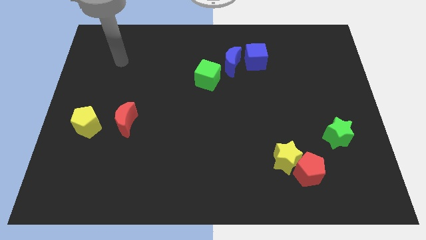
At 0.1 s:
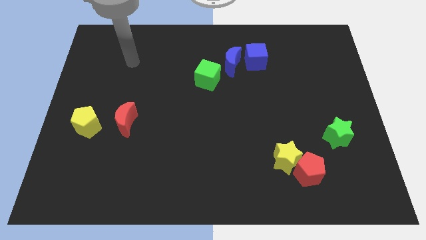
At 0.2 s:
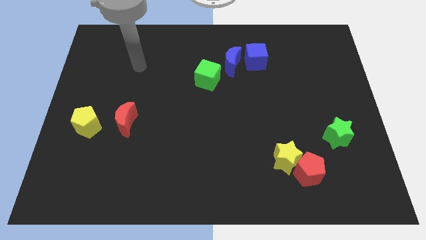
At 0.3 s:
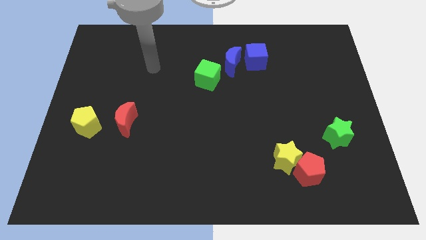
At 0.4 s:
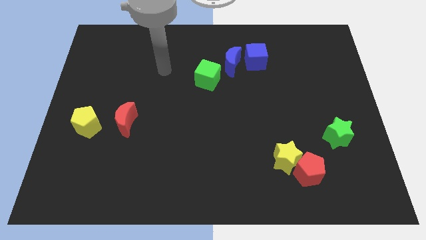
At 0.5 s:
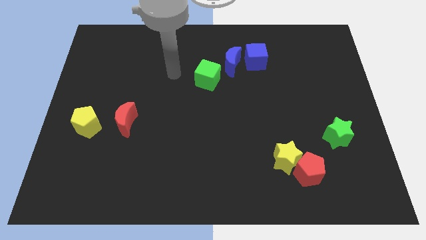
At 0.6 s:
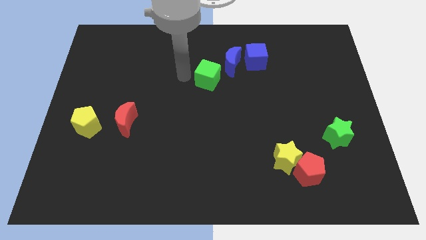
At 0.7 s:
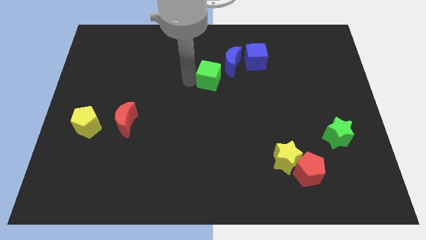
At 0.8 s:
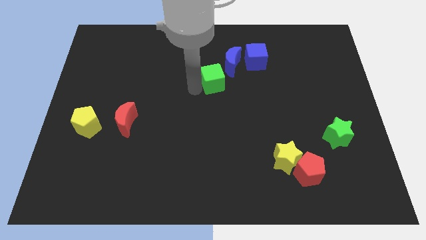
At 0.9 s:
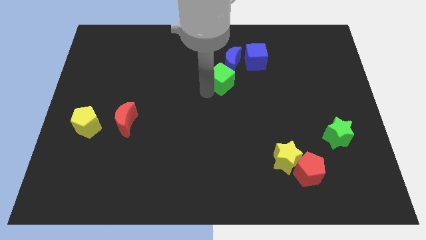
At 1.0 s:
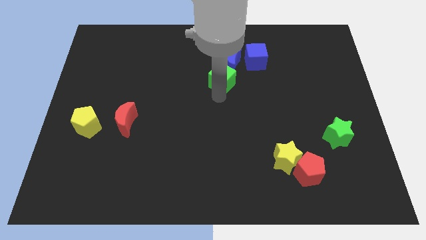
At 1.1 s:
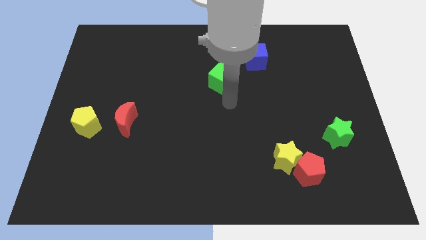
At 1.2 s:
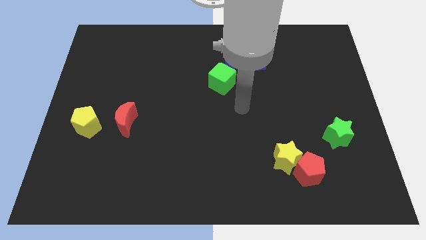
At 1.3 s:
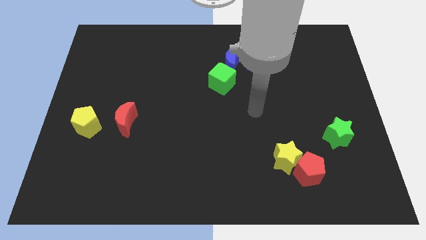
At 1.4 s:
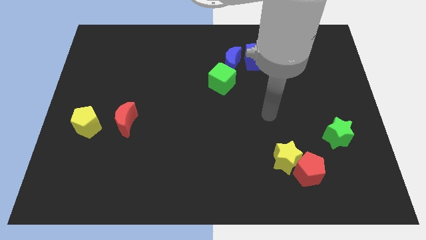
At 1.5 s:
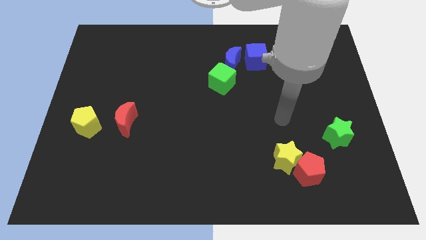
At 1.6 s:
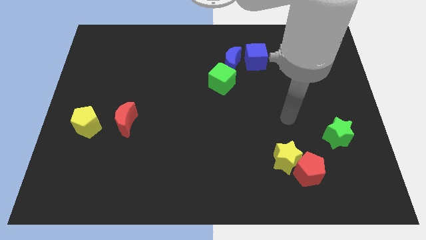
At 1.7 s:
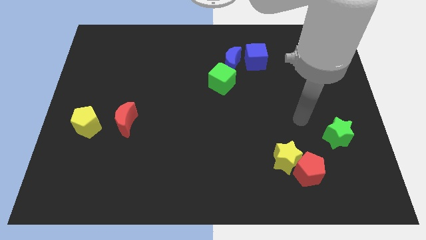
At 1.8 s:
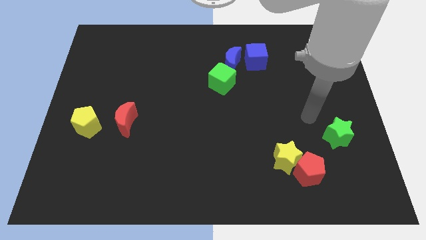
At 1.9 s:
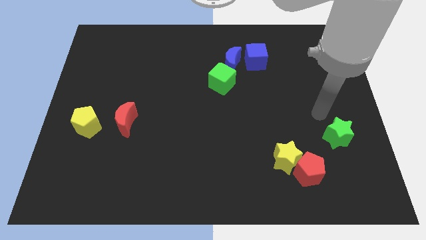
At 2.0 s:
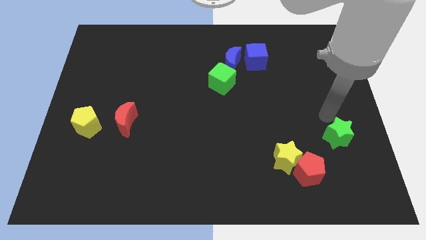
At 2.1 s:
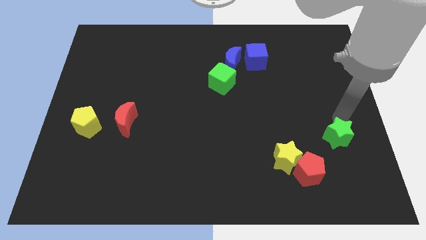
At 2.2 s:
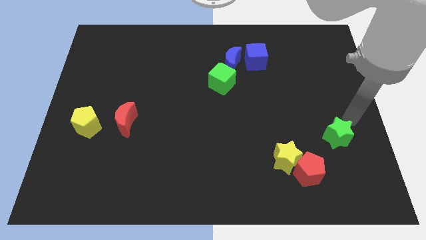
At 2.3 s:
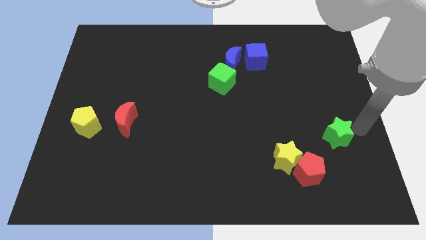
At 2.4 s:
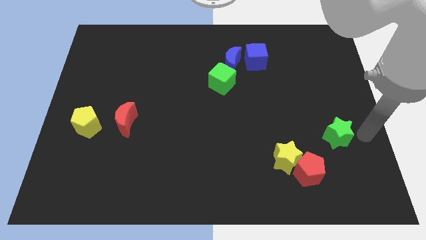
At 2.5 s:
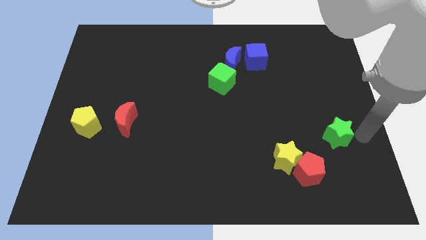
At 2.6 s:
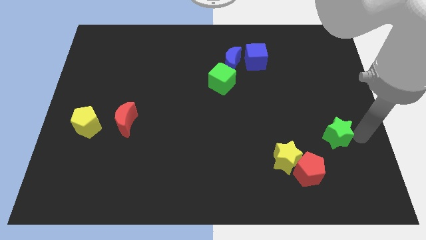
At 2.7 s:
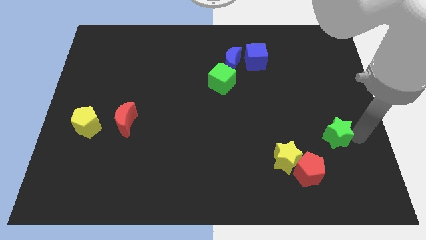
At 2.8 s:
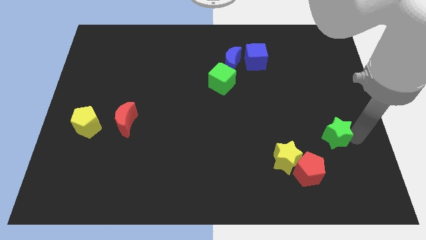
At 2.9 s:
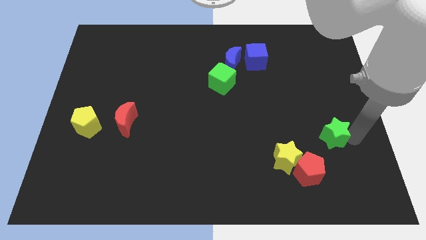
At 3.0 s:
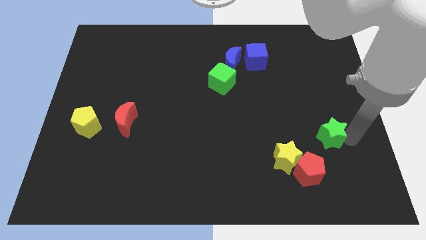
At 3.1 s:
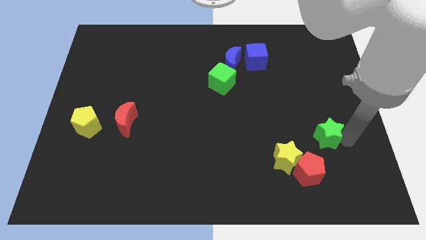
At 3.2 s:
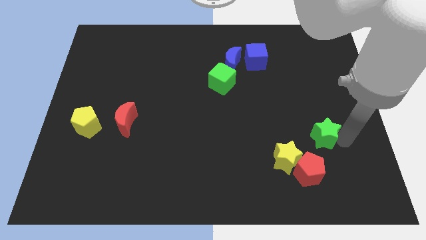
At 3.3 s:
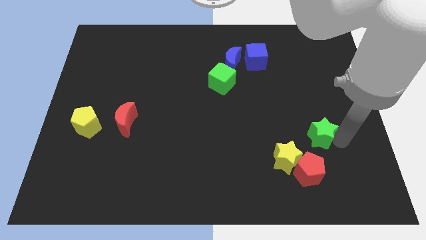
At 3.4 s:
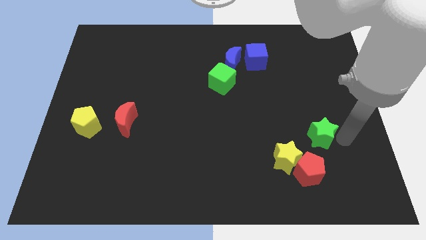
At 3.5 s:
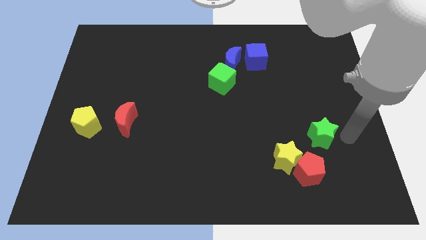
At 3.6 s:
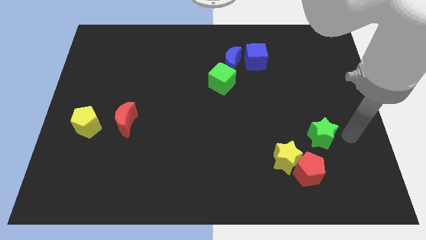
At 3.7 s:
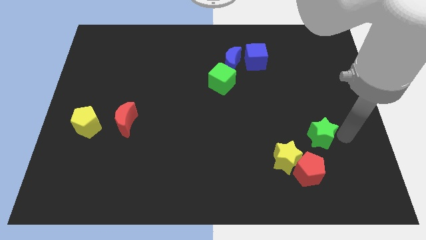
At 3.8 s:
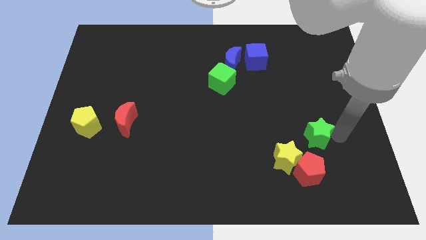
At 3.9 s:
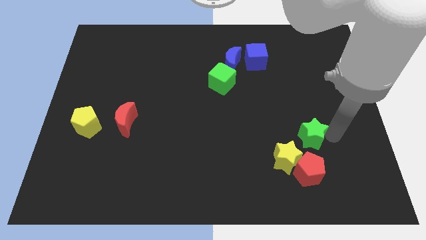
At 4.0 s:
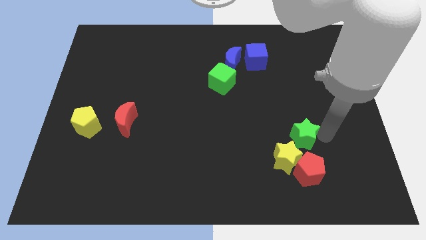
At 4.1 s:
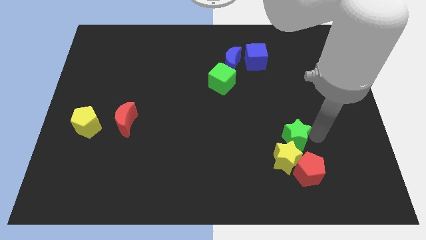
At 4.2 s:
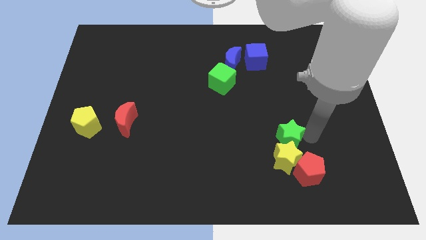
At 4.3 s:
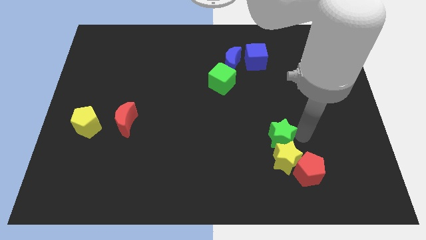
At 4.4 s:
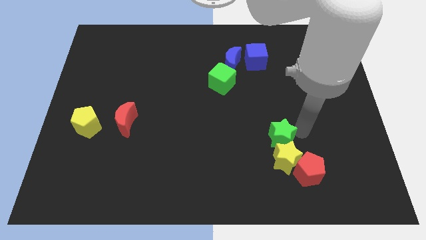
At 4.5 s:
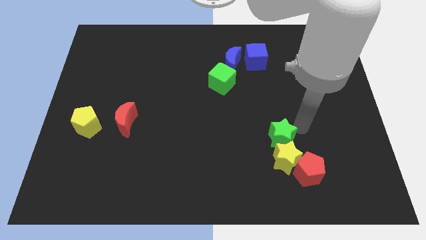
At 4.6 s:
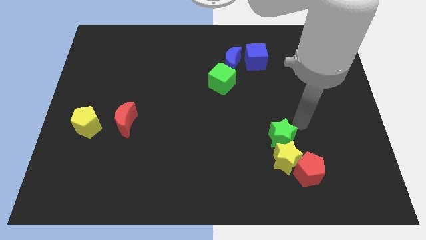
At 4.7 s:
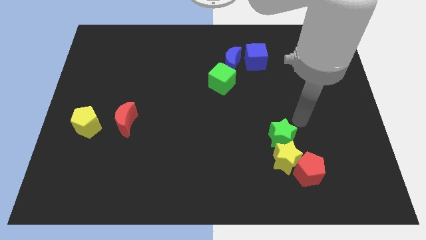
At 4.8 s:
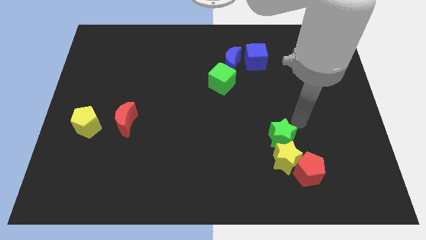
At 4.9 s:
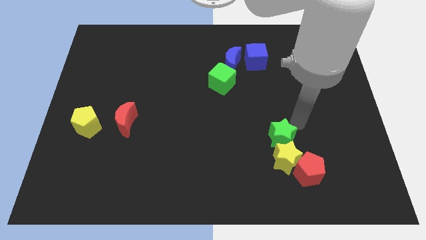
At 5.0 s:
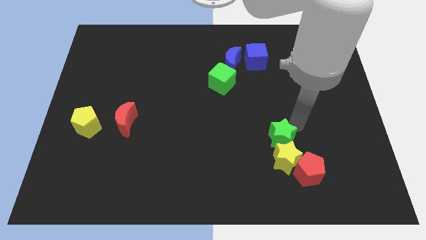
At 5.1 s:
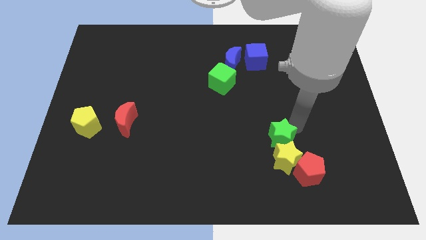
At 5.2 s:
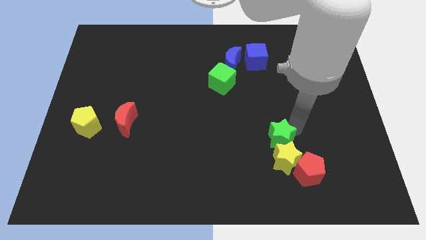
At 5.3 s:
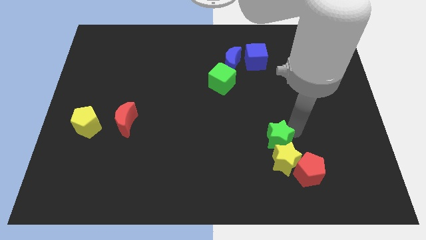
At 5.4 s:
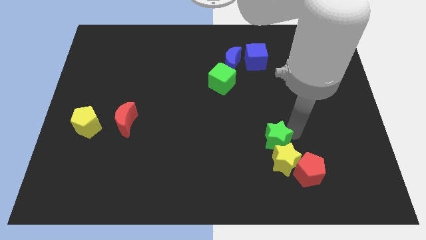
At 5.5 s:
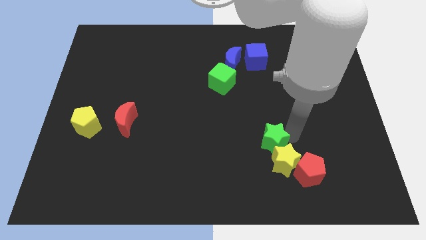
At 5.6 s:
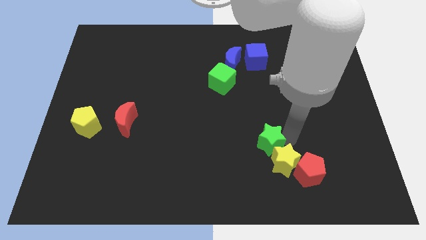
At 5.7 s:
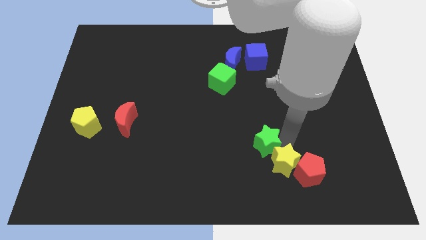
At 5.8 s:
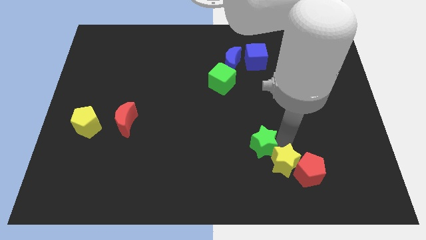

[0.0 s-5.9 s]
push the green star to the left of the yellow star
